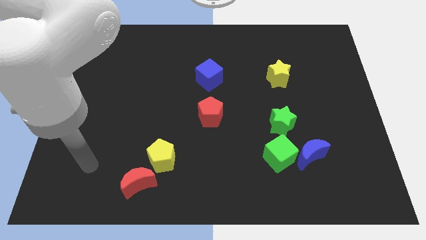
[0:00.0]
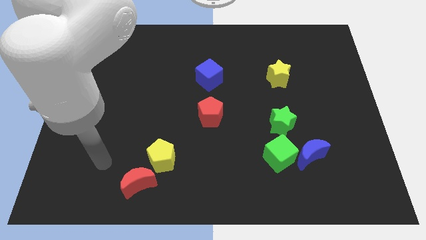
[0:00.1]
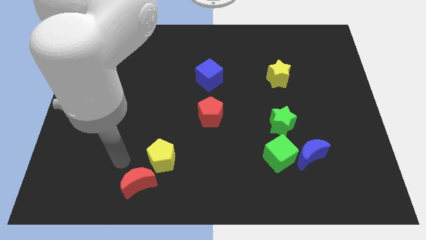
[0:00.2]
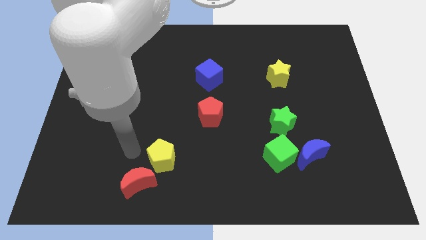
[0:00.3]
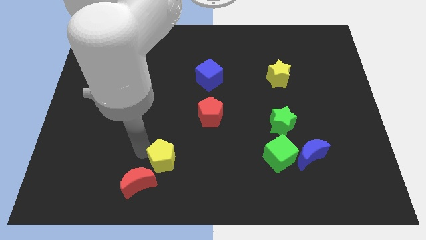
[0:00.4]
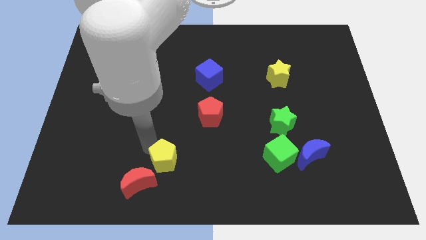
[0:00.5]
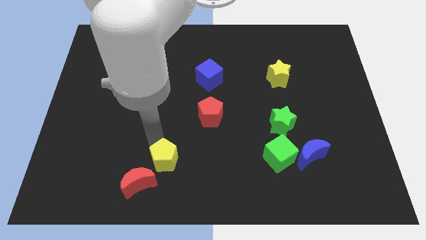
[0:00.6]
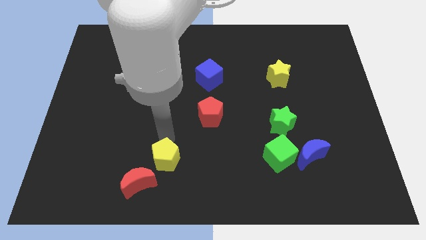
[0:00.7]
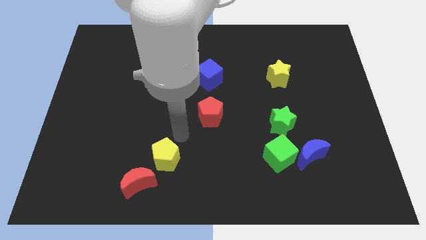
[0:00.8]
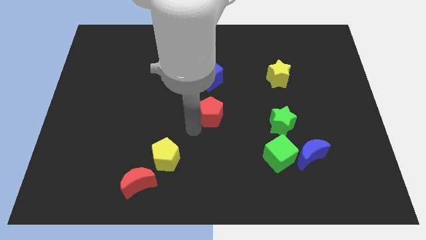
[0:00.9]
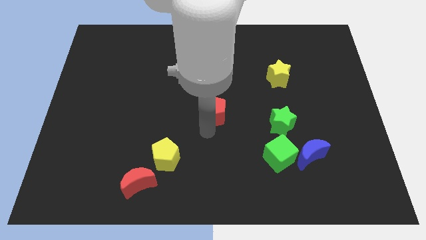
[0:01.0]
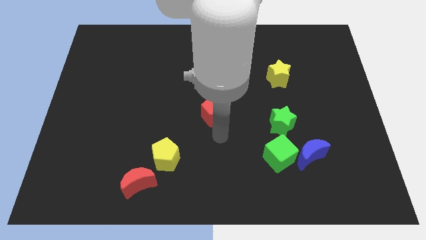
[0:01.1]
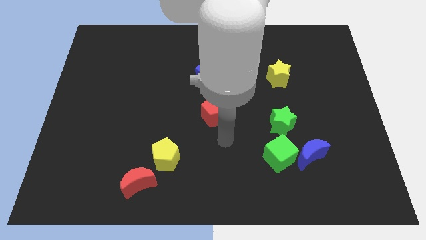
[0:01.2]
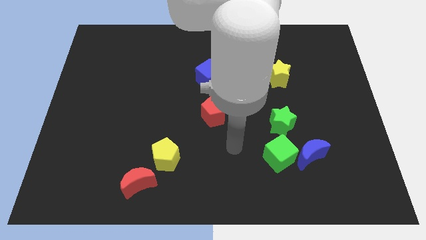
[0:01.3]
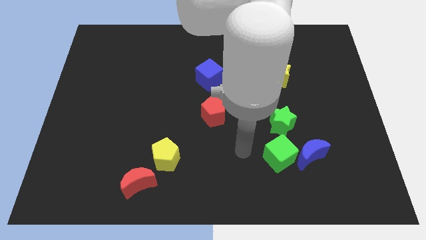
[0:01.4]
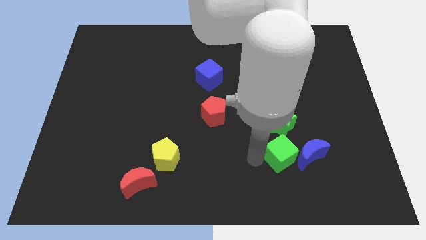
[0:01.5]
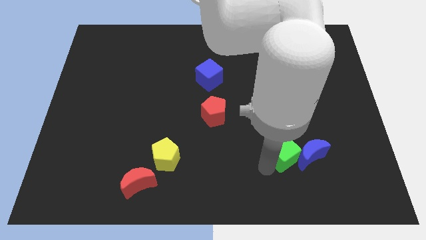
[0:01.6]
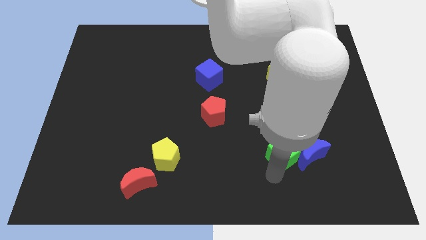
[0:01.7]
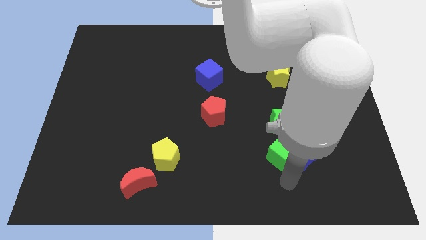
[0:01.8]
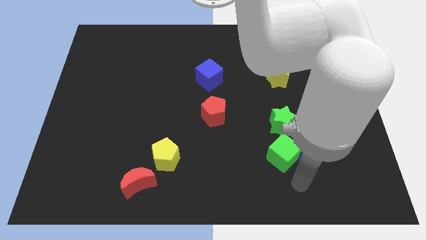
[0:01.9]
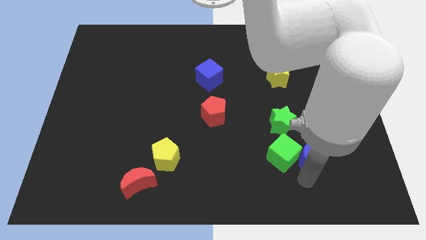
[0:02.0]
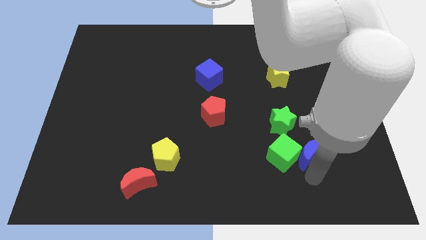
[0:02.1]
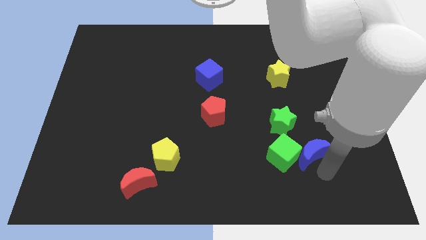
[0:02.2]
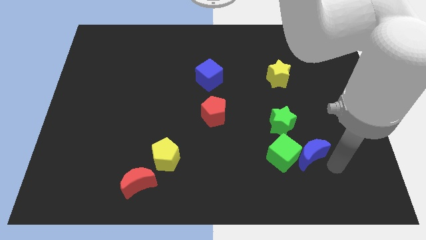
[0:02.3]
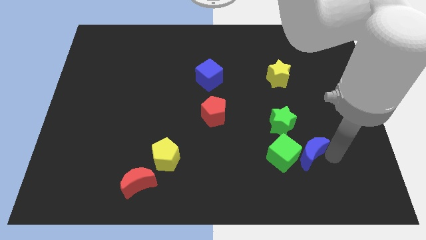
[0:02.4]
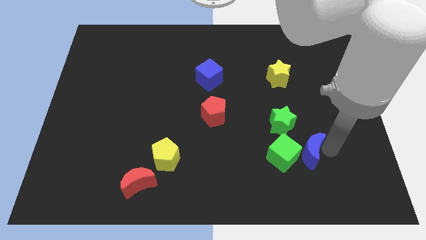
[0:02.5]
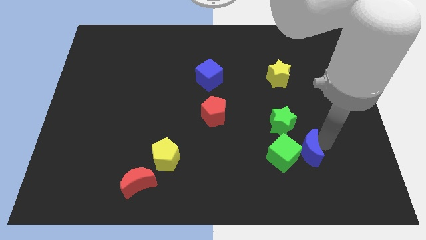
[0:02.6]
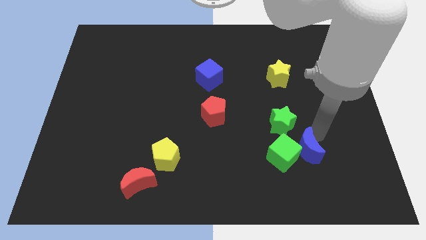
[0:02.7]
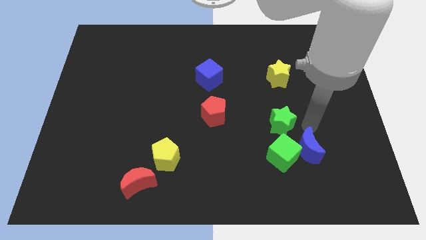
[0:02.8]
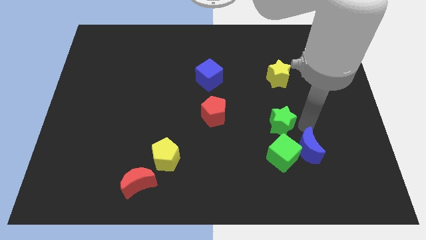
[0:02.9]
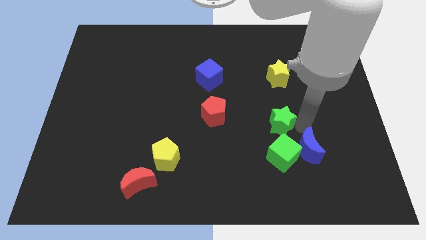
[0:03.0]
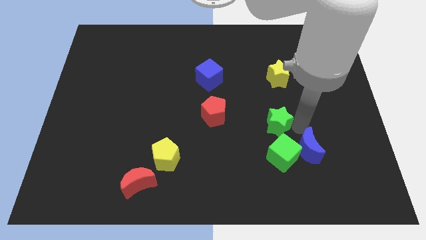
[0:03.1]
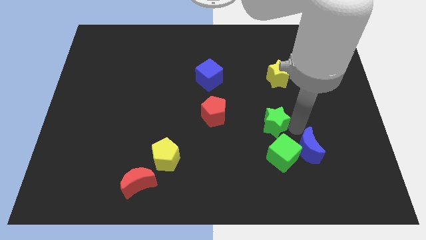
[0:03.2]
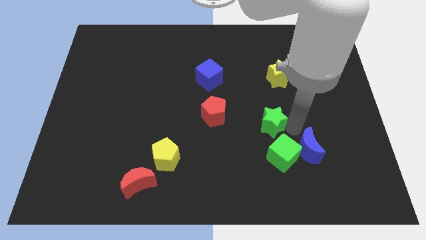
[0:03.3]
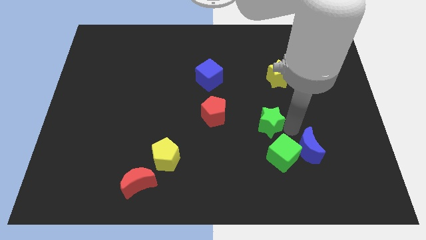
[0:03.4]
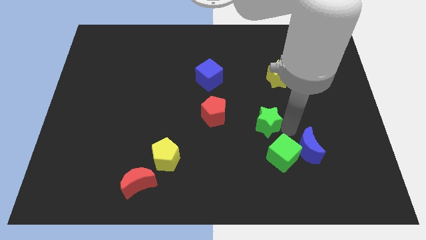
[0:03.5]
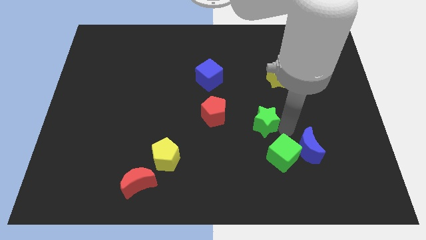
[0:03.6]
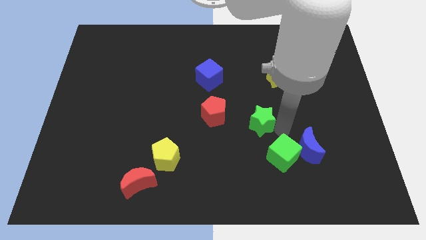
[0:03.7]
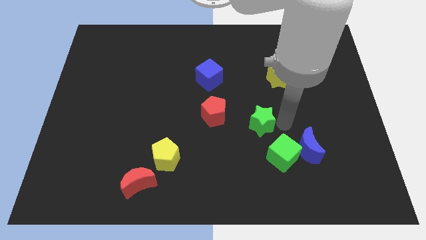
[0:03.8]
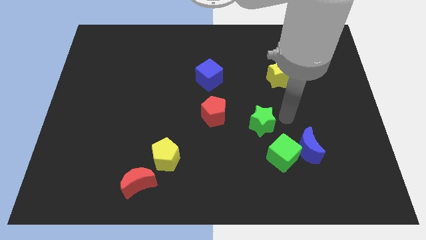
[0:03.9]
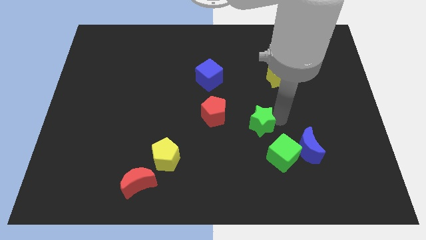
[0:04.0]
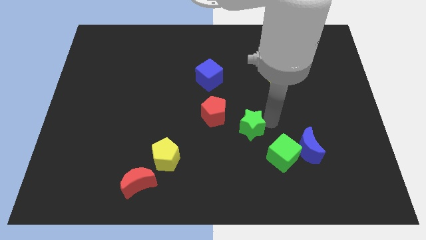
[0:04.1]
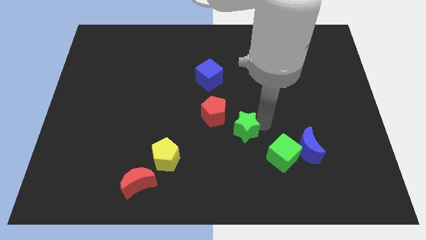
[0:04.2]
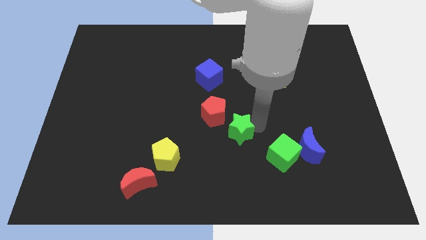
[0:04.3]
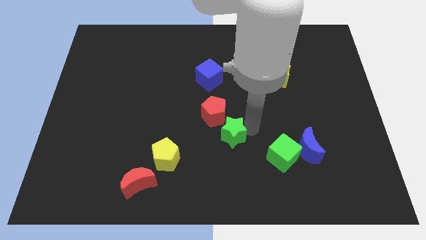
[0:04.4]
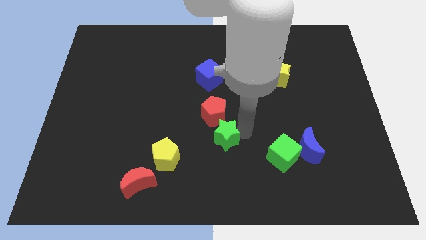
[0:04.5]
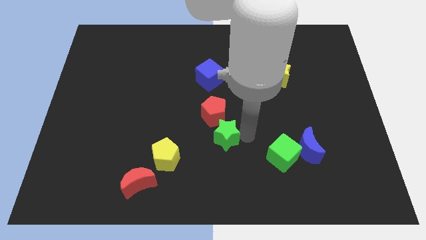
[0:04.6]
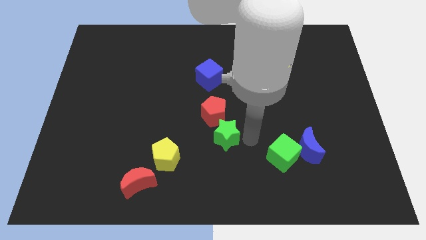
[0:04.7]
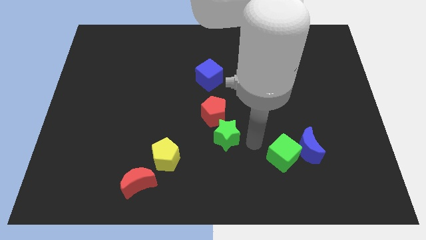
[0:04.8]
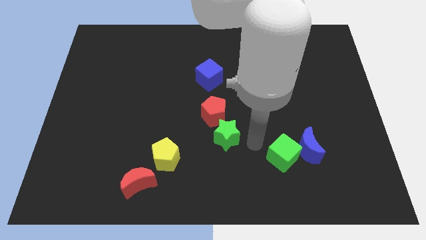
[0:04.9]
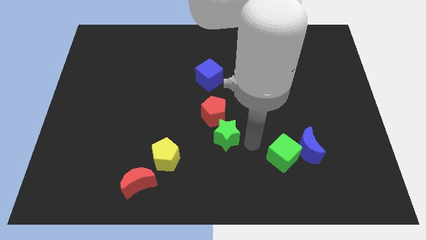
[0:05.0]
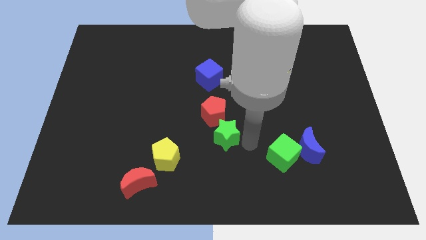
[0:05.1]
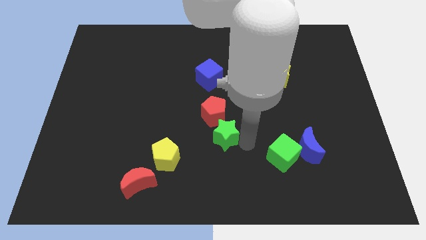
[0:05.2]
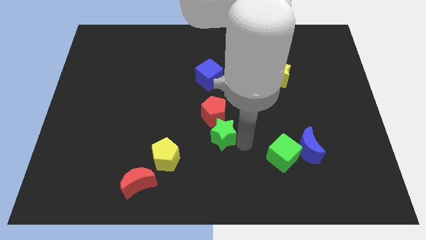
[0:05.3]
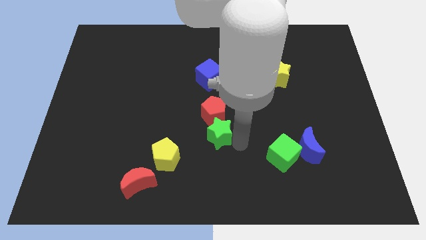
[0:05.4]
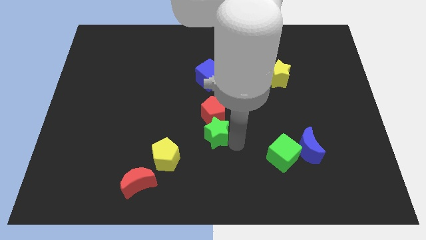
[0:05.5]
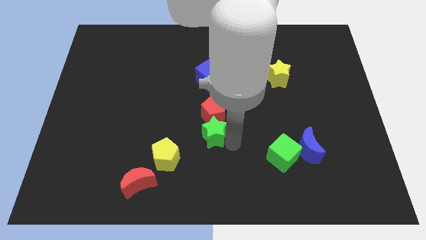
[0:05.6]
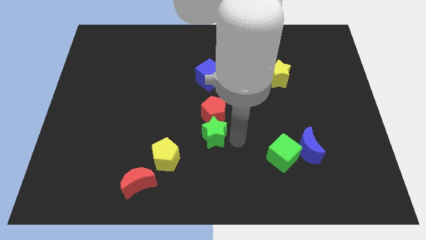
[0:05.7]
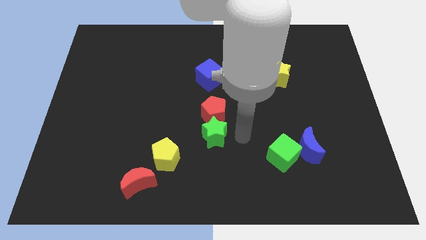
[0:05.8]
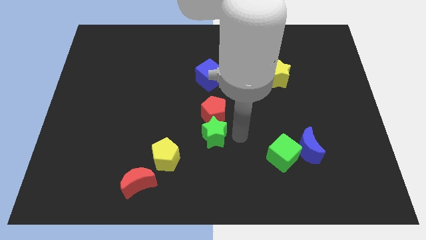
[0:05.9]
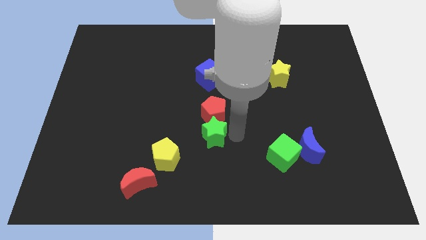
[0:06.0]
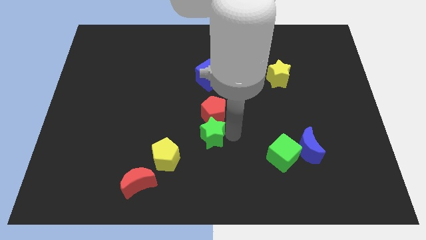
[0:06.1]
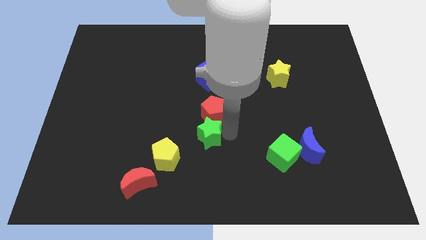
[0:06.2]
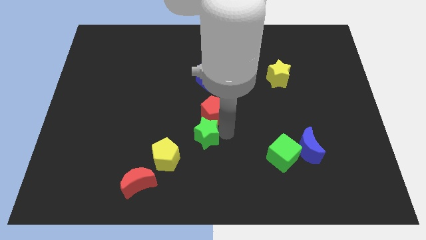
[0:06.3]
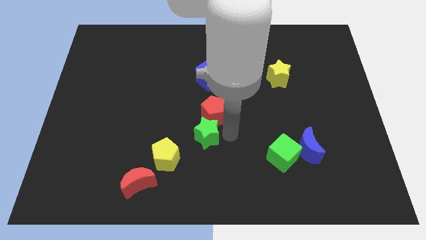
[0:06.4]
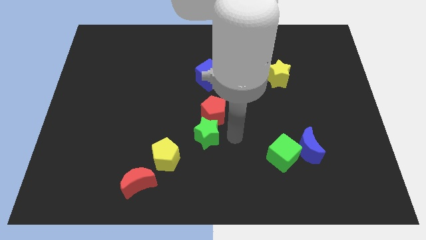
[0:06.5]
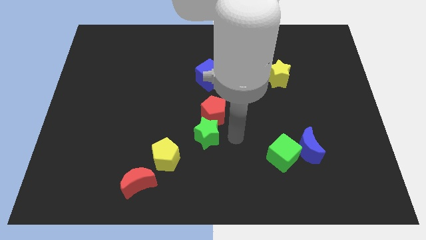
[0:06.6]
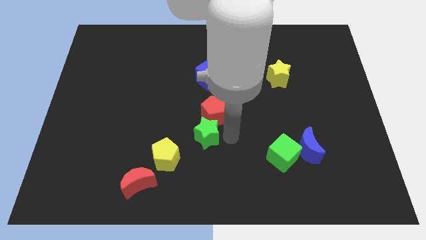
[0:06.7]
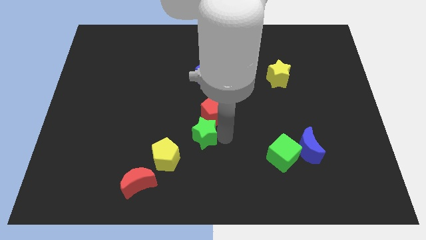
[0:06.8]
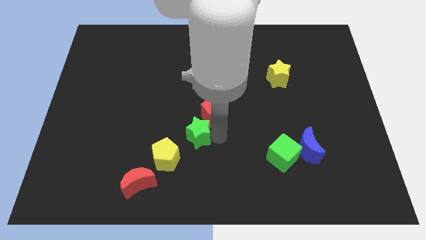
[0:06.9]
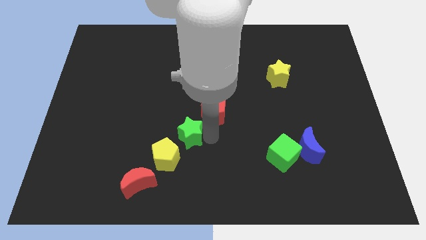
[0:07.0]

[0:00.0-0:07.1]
slide the green star to the left

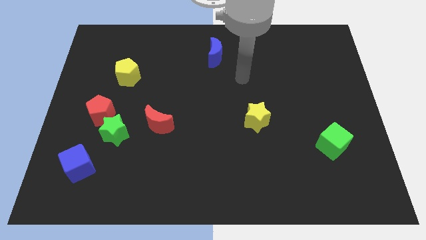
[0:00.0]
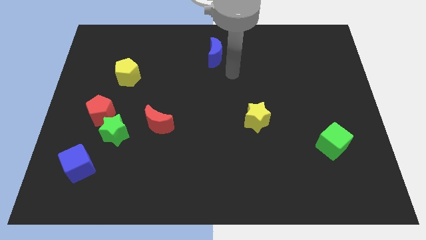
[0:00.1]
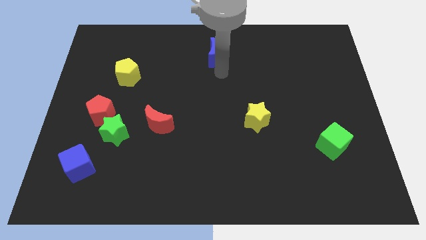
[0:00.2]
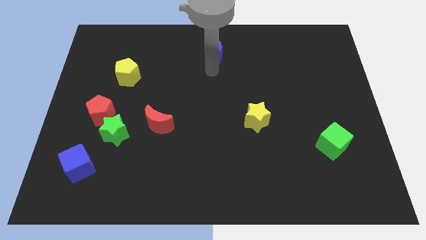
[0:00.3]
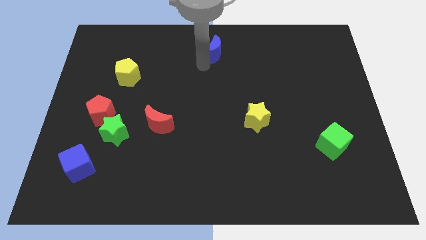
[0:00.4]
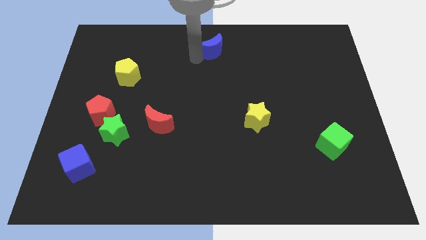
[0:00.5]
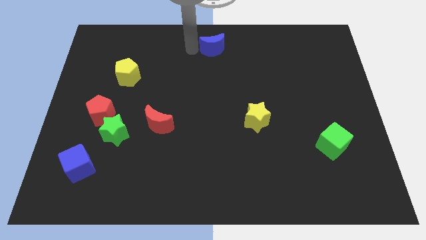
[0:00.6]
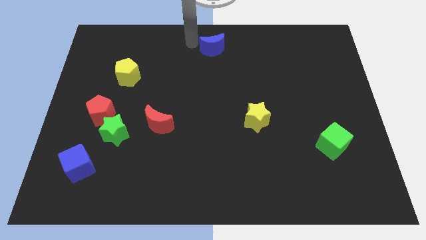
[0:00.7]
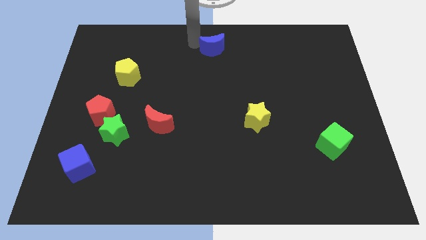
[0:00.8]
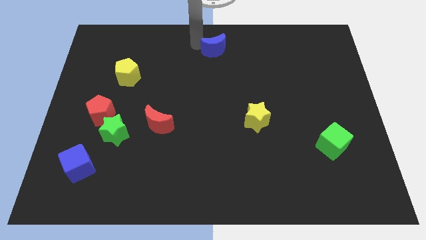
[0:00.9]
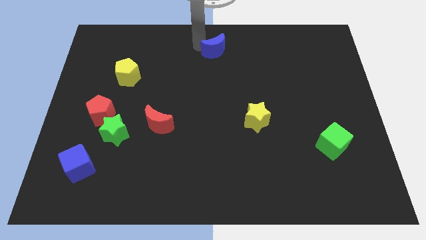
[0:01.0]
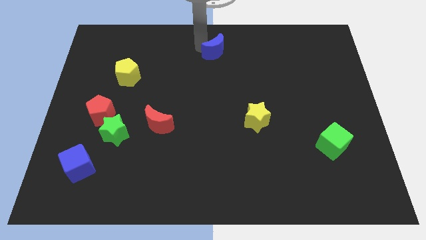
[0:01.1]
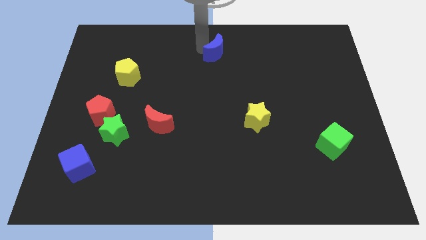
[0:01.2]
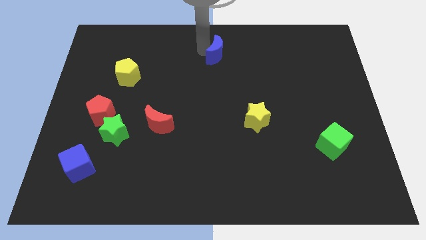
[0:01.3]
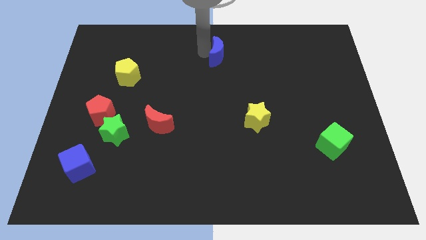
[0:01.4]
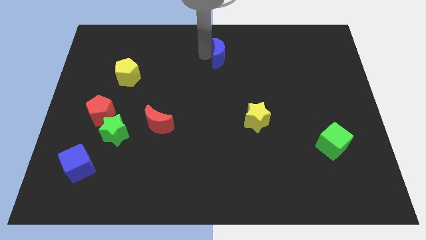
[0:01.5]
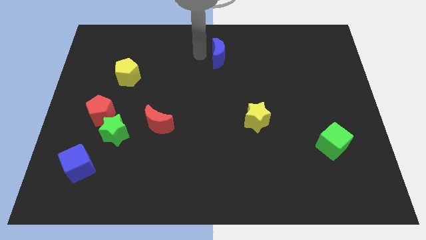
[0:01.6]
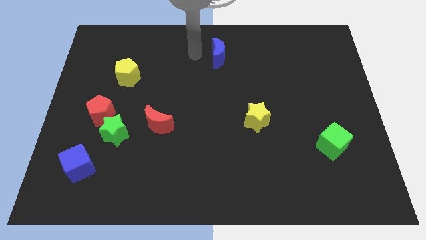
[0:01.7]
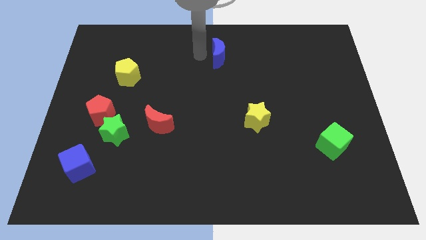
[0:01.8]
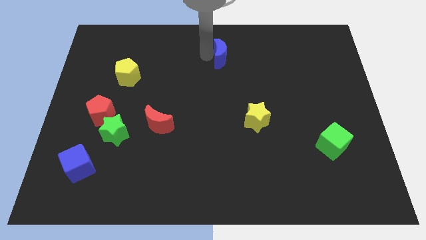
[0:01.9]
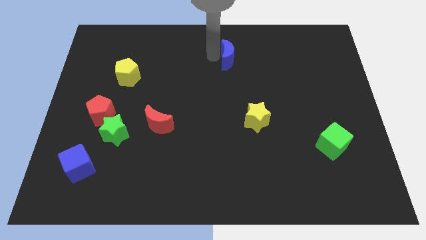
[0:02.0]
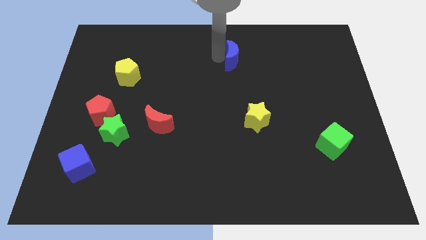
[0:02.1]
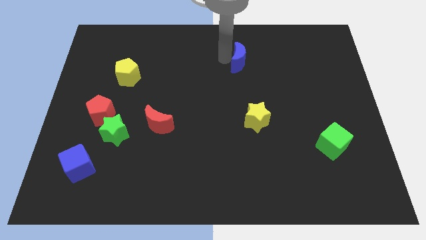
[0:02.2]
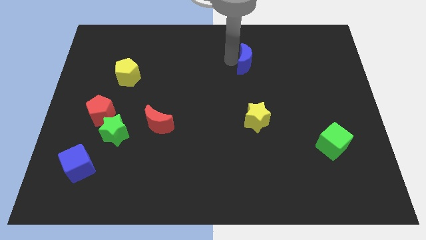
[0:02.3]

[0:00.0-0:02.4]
push the blue moon to the right a little bit
